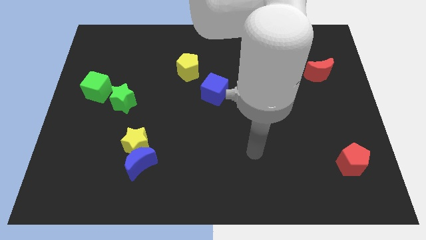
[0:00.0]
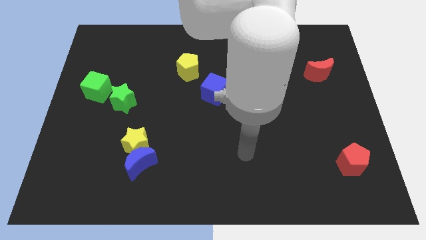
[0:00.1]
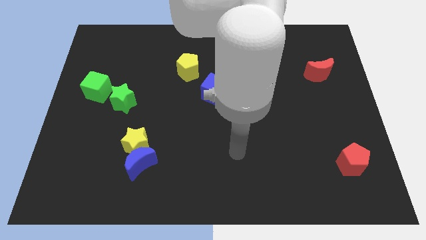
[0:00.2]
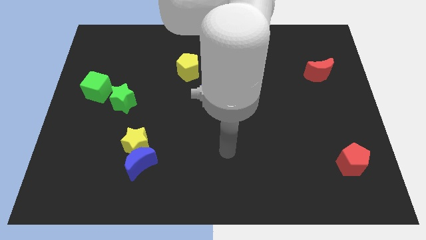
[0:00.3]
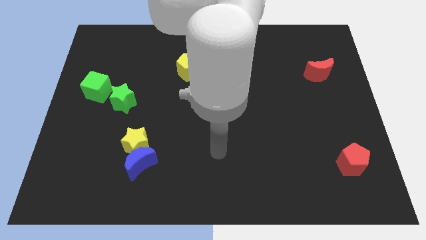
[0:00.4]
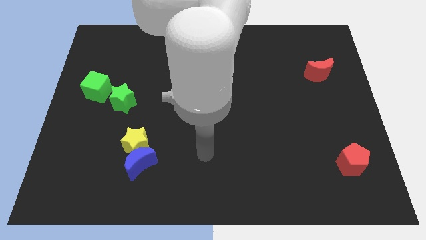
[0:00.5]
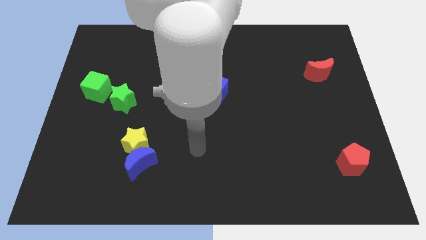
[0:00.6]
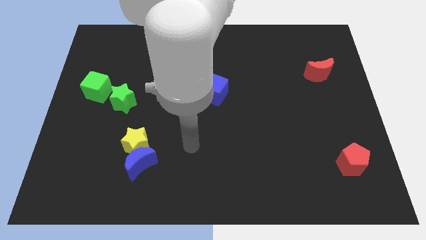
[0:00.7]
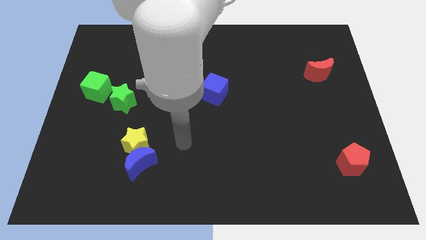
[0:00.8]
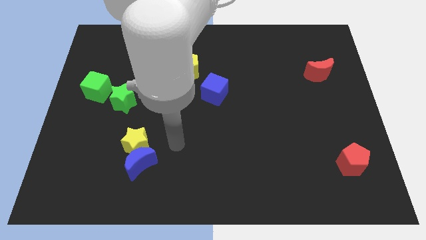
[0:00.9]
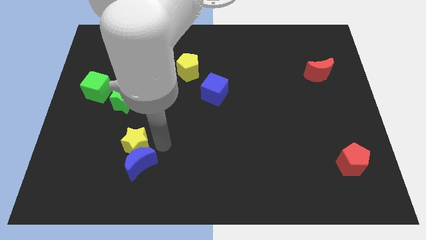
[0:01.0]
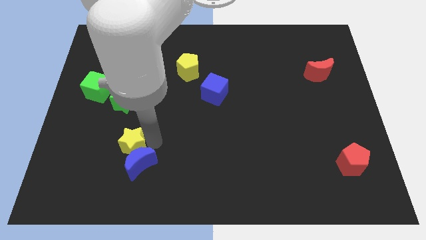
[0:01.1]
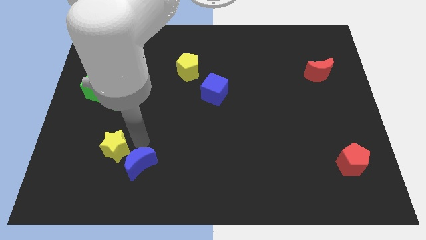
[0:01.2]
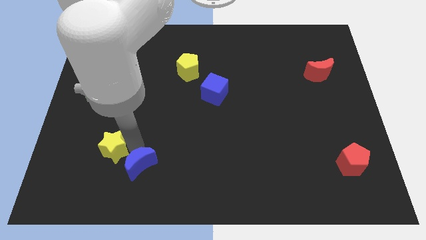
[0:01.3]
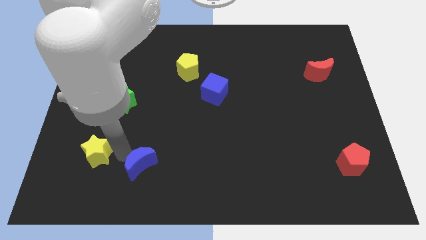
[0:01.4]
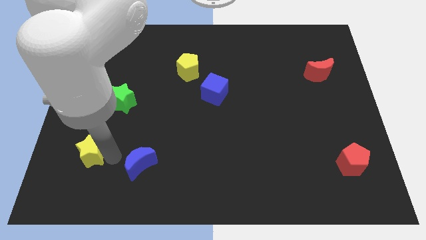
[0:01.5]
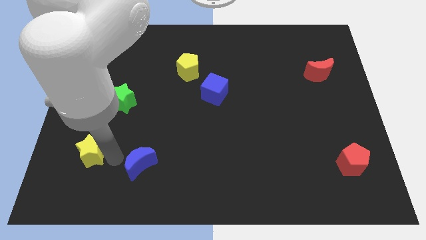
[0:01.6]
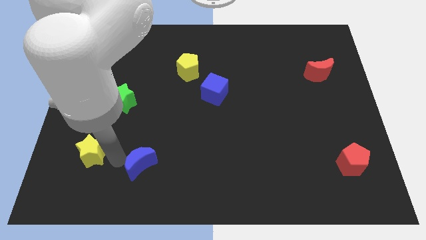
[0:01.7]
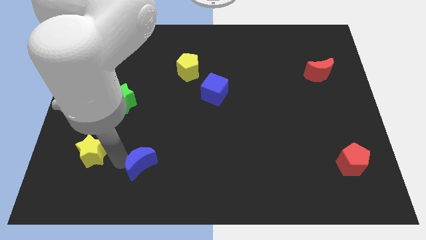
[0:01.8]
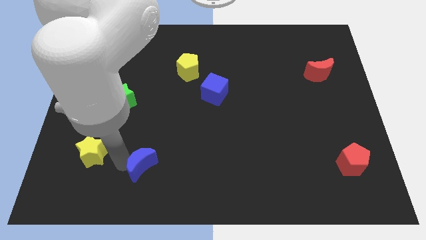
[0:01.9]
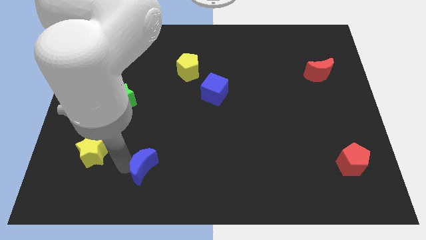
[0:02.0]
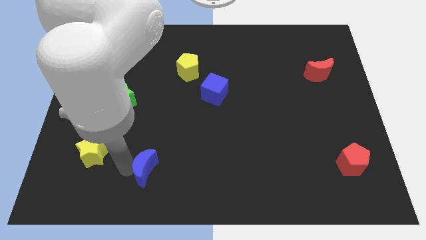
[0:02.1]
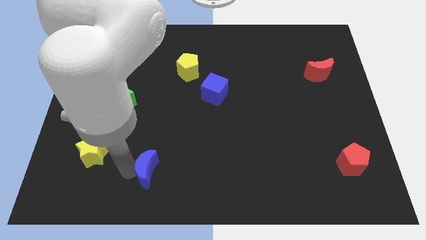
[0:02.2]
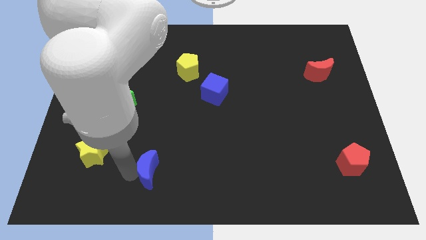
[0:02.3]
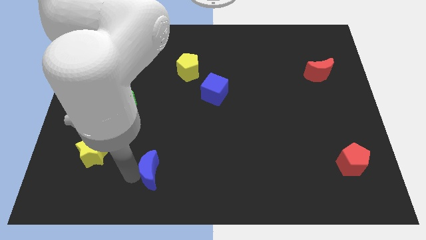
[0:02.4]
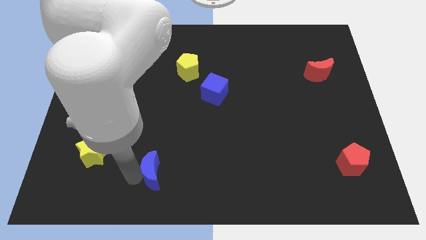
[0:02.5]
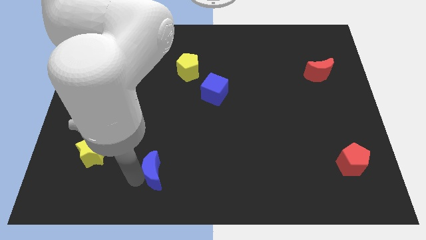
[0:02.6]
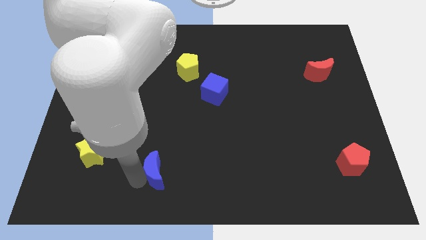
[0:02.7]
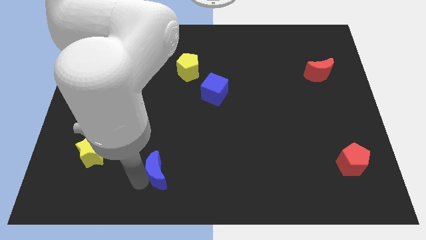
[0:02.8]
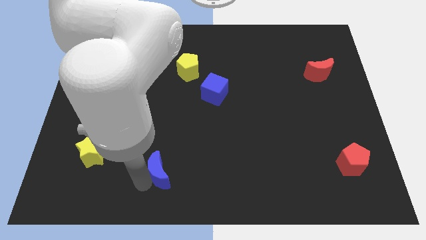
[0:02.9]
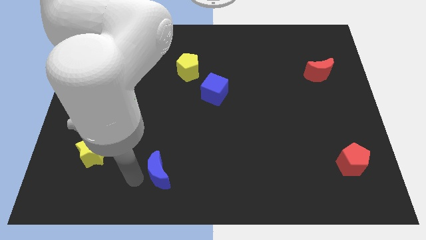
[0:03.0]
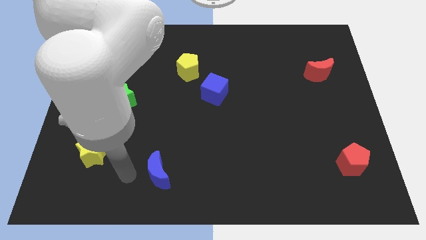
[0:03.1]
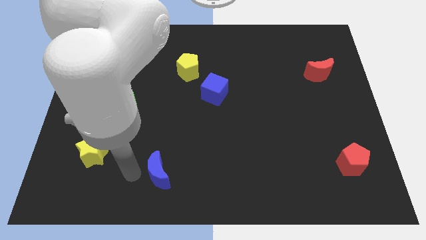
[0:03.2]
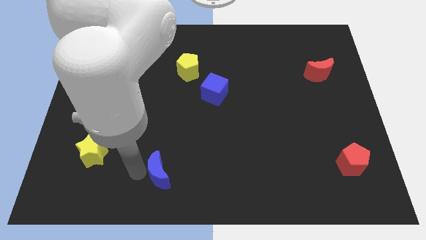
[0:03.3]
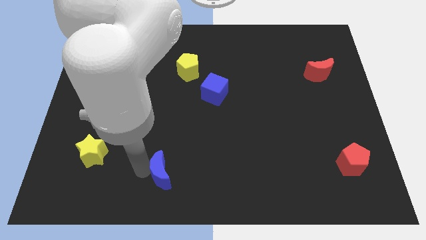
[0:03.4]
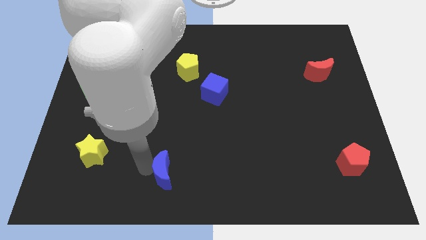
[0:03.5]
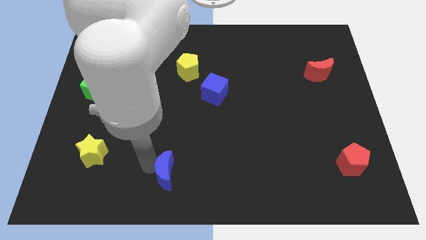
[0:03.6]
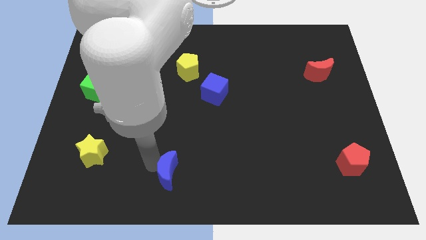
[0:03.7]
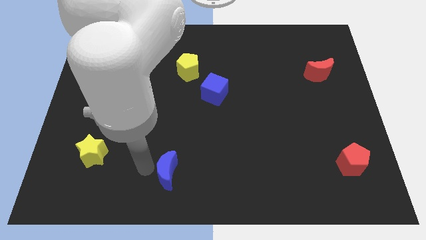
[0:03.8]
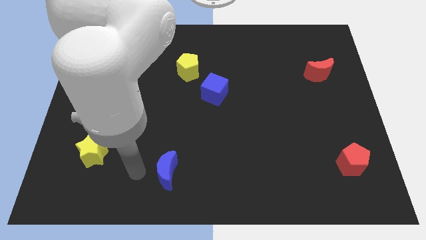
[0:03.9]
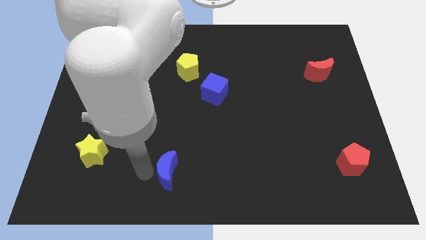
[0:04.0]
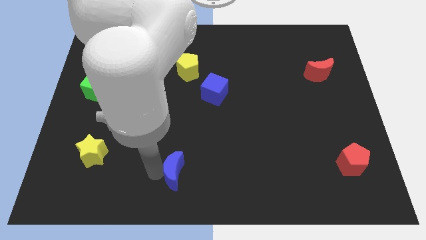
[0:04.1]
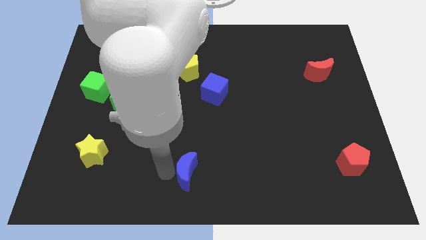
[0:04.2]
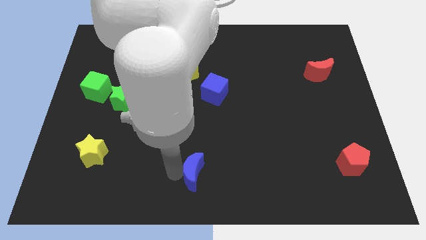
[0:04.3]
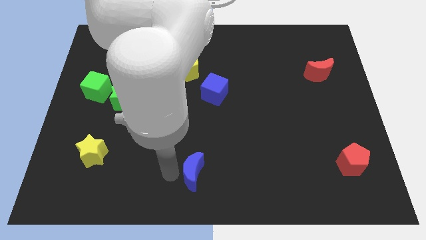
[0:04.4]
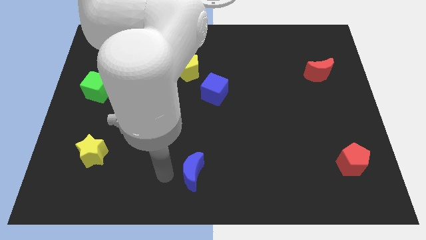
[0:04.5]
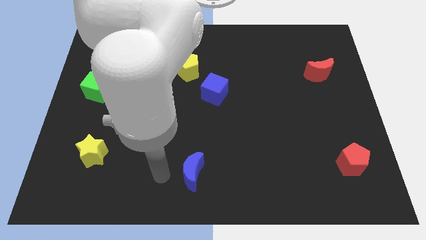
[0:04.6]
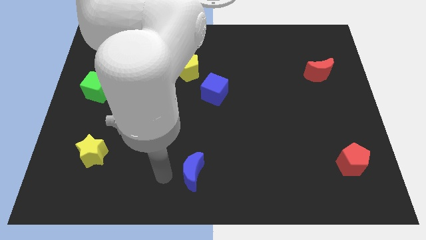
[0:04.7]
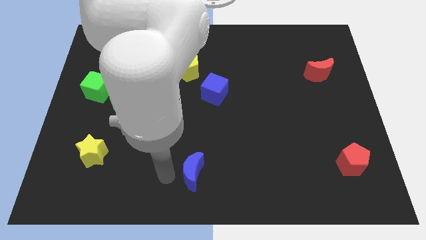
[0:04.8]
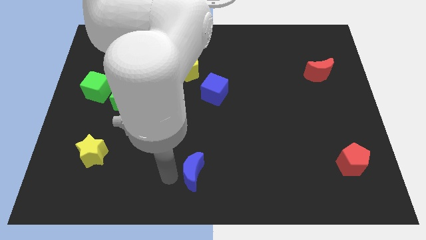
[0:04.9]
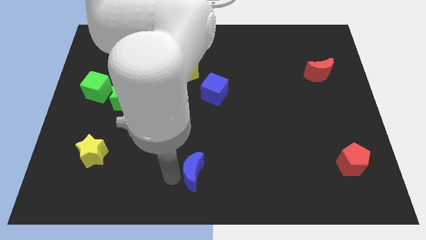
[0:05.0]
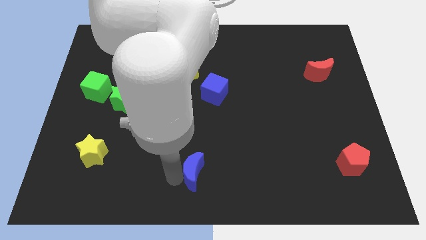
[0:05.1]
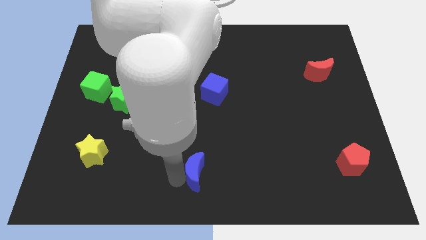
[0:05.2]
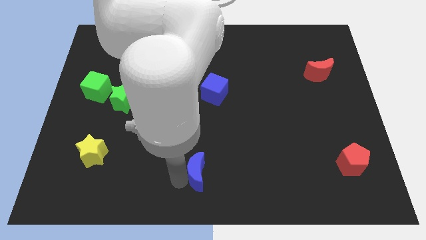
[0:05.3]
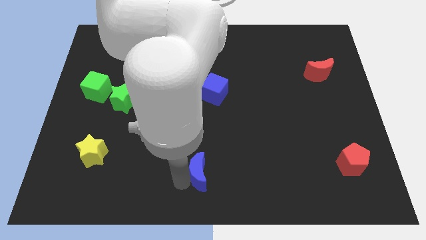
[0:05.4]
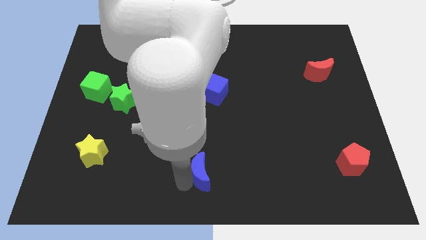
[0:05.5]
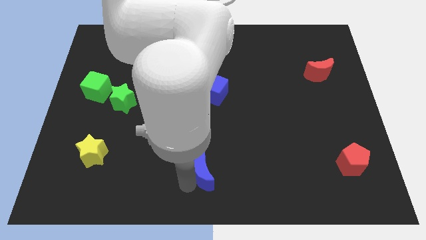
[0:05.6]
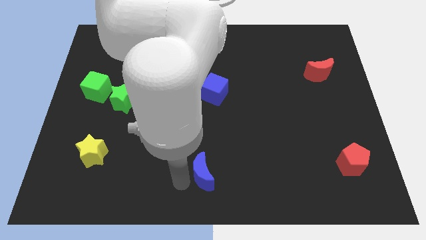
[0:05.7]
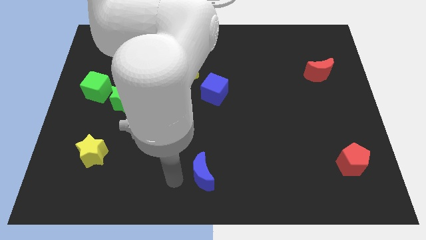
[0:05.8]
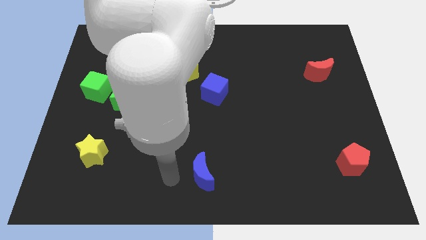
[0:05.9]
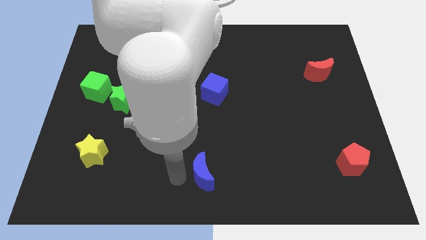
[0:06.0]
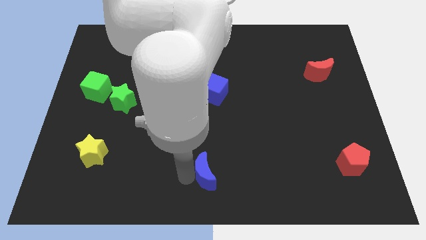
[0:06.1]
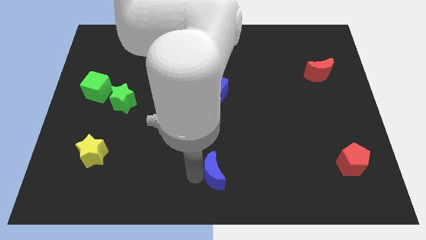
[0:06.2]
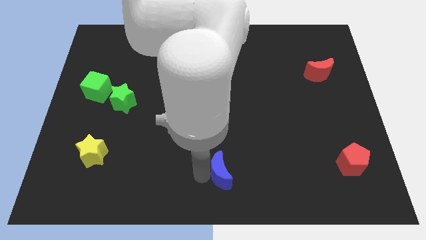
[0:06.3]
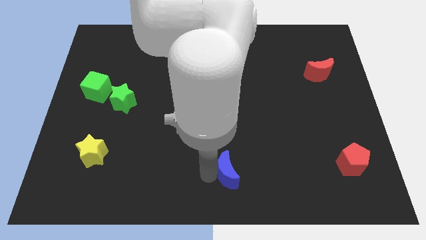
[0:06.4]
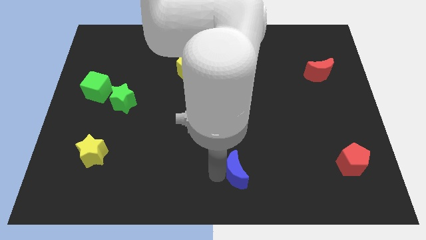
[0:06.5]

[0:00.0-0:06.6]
slide the blue moon right

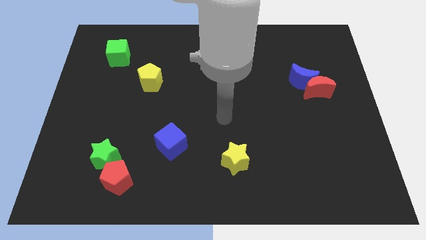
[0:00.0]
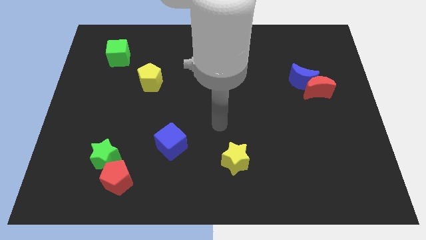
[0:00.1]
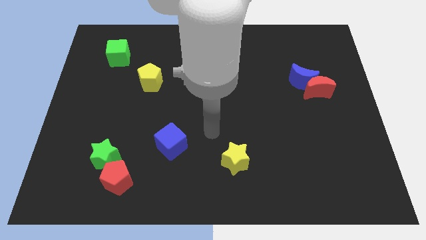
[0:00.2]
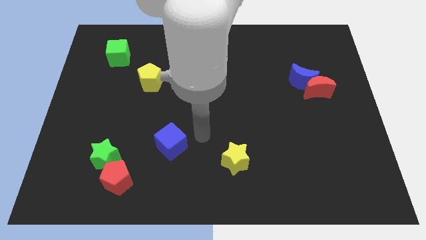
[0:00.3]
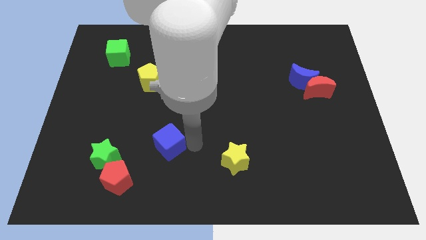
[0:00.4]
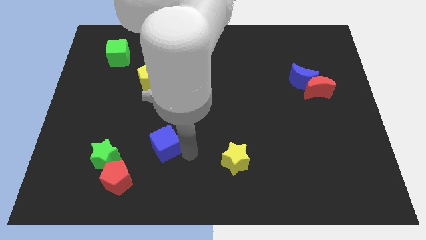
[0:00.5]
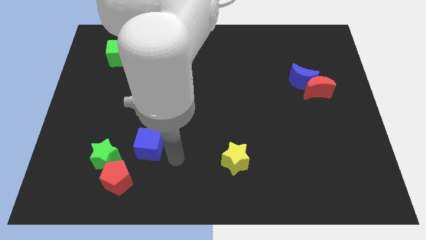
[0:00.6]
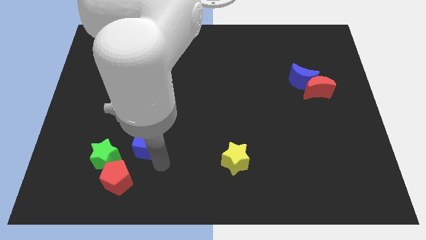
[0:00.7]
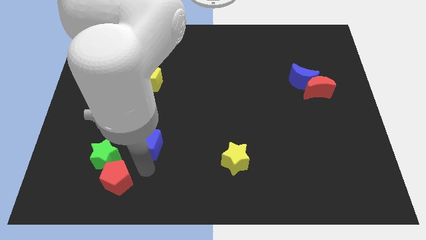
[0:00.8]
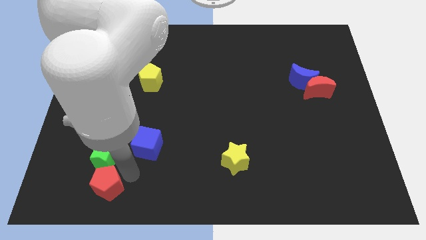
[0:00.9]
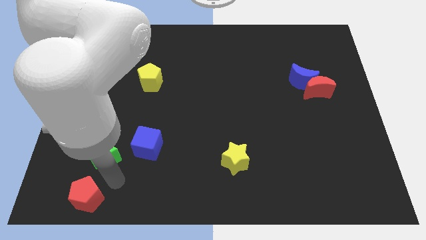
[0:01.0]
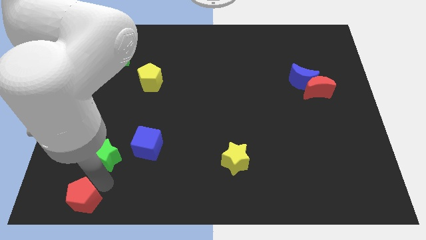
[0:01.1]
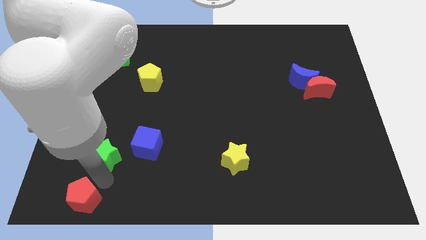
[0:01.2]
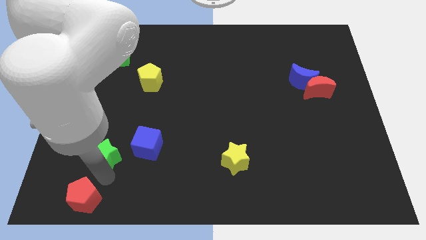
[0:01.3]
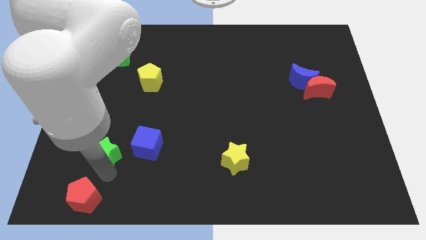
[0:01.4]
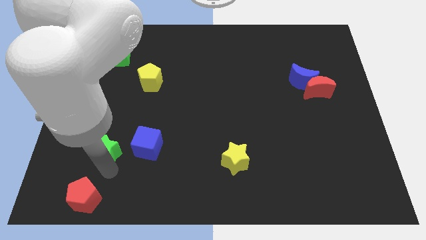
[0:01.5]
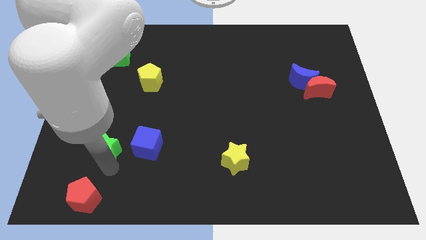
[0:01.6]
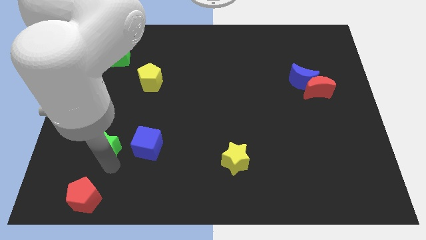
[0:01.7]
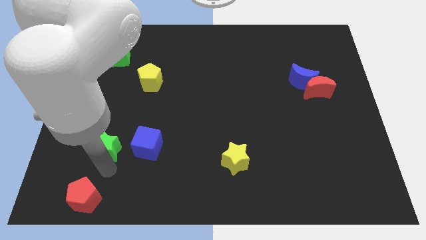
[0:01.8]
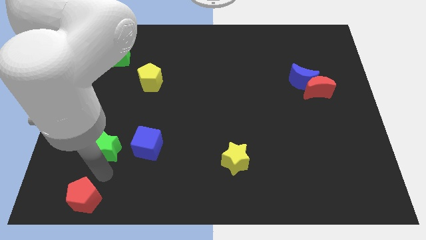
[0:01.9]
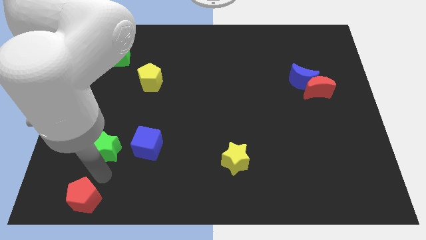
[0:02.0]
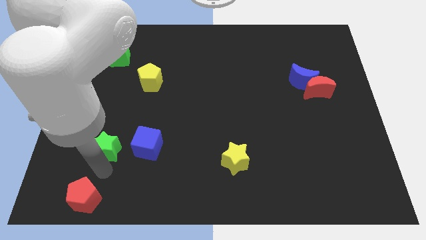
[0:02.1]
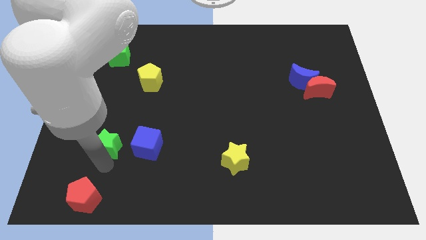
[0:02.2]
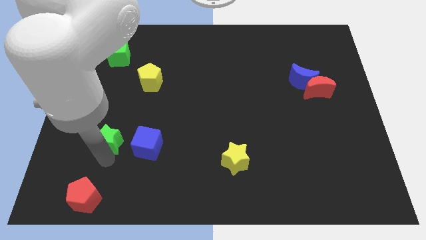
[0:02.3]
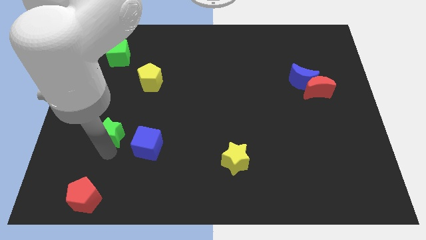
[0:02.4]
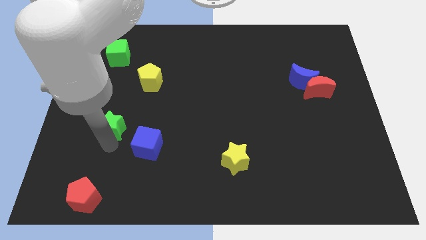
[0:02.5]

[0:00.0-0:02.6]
move the green star a bit up
